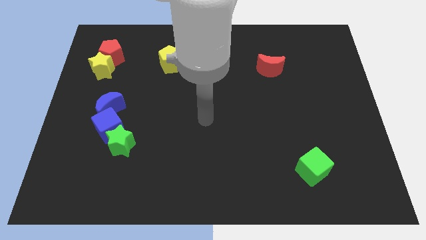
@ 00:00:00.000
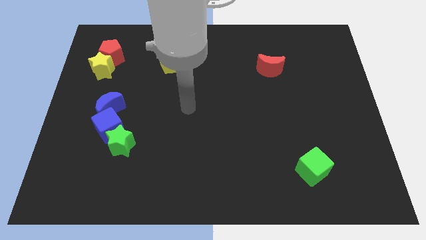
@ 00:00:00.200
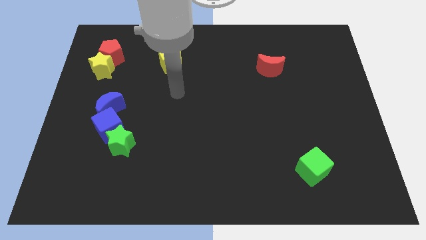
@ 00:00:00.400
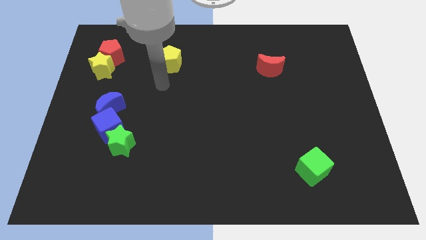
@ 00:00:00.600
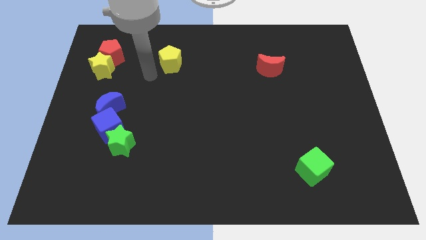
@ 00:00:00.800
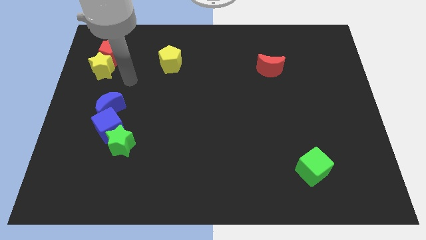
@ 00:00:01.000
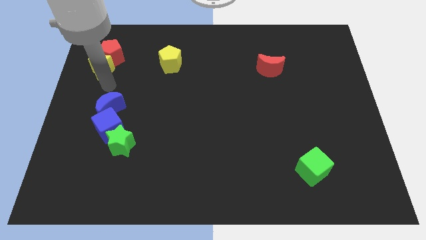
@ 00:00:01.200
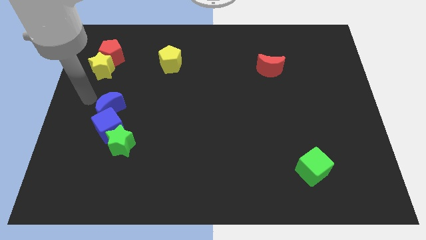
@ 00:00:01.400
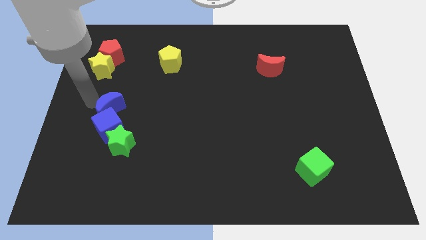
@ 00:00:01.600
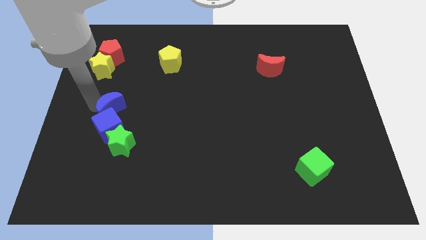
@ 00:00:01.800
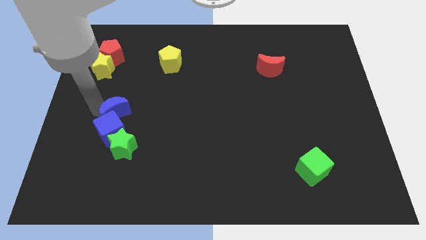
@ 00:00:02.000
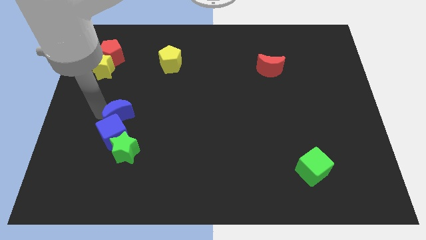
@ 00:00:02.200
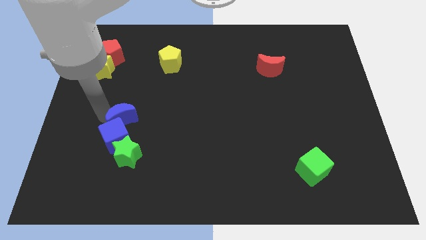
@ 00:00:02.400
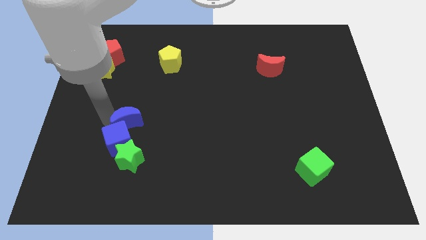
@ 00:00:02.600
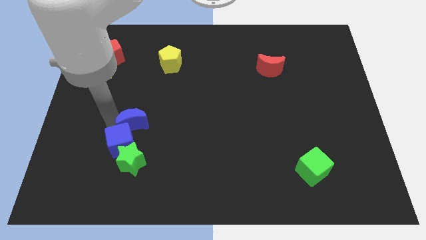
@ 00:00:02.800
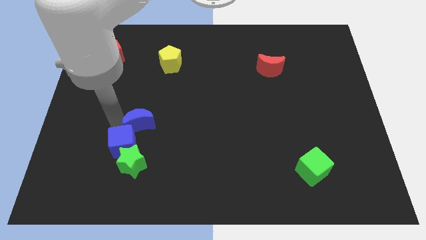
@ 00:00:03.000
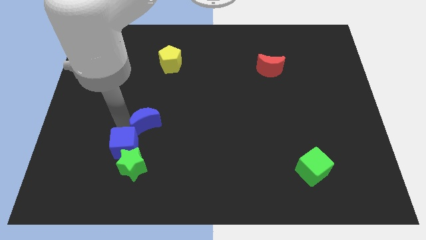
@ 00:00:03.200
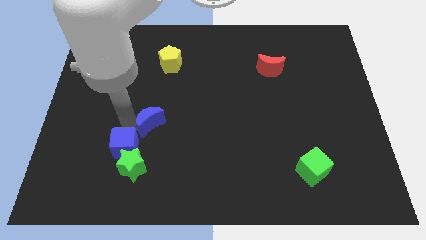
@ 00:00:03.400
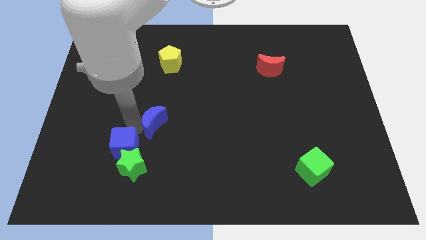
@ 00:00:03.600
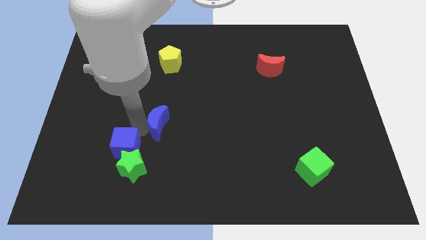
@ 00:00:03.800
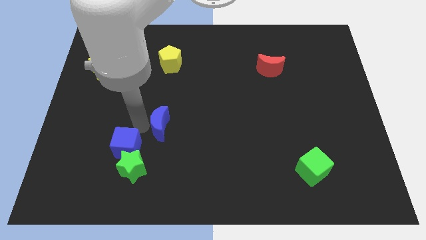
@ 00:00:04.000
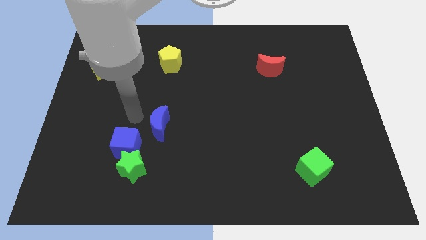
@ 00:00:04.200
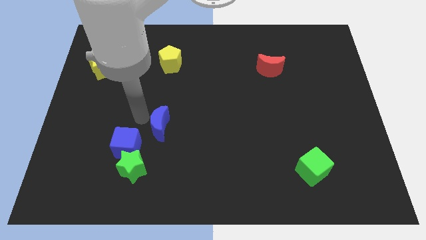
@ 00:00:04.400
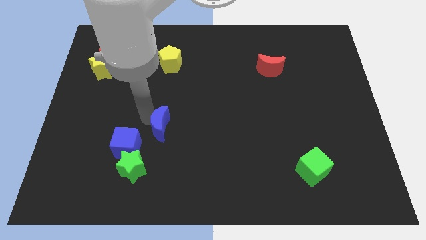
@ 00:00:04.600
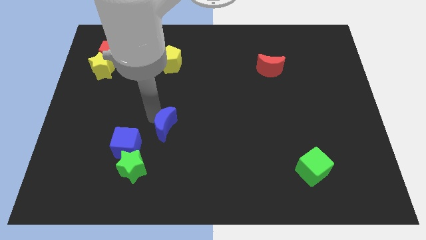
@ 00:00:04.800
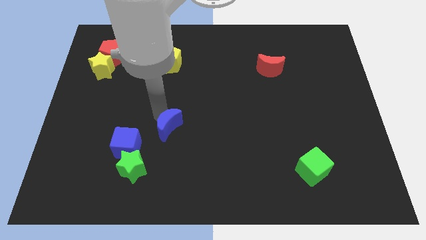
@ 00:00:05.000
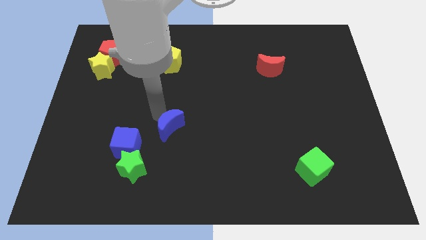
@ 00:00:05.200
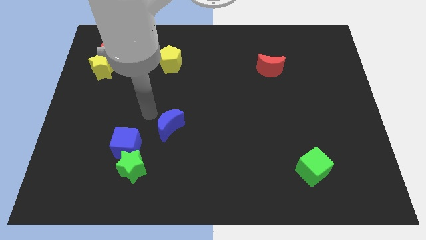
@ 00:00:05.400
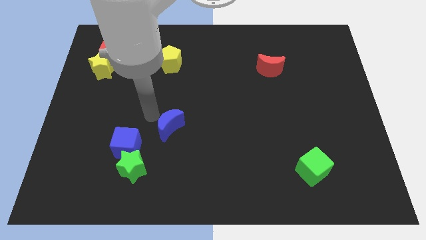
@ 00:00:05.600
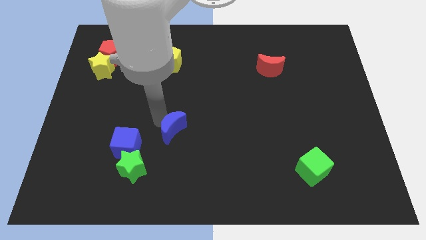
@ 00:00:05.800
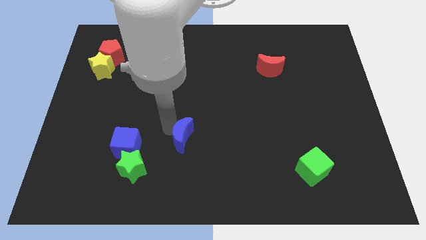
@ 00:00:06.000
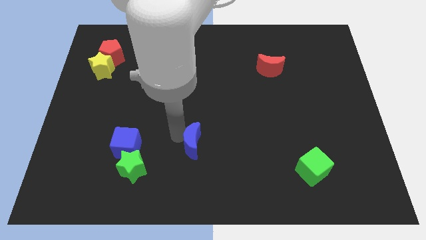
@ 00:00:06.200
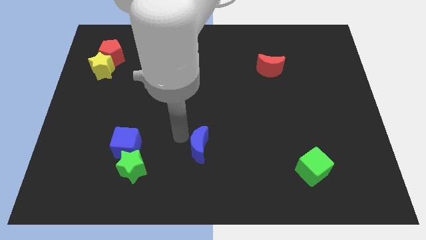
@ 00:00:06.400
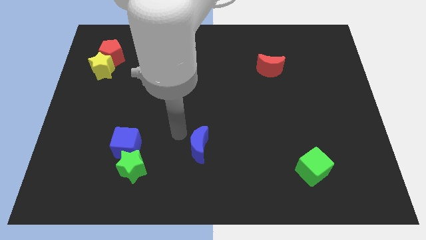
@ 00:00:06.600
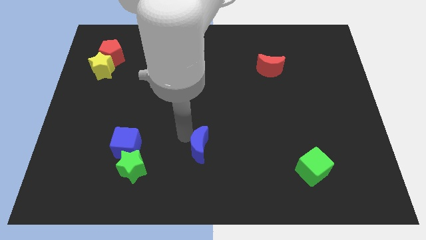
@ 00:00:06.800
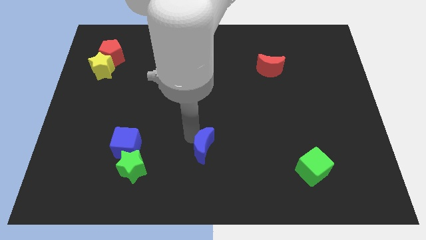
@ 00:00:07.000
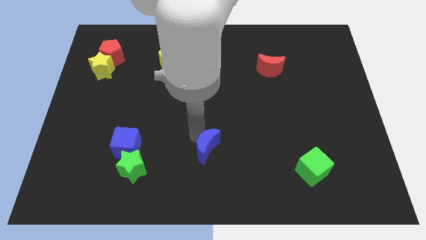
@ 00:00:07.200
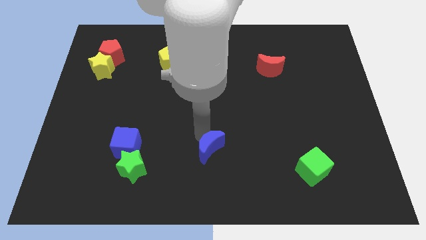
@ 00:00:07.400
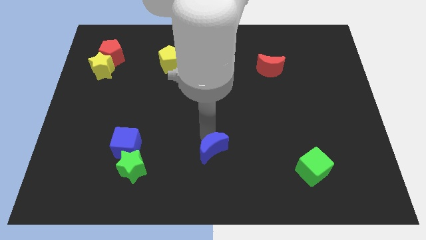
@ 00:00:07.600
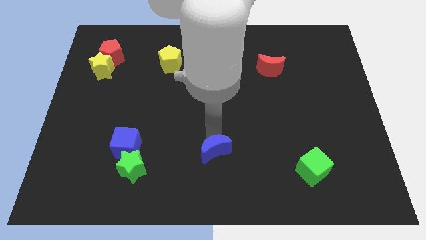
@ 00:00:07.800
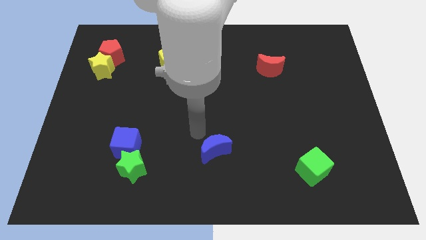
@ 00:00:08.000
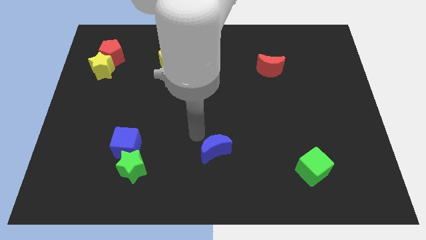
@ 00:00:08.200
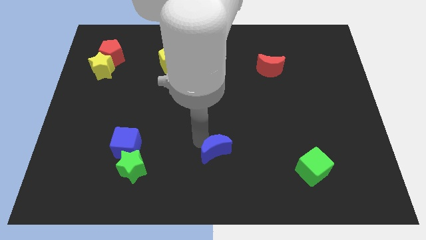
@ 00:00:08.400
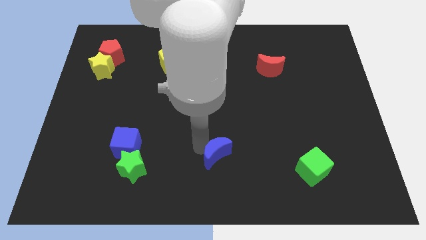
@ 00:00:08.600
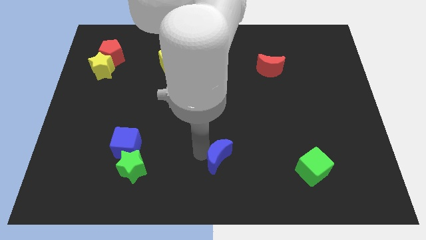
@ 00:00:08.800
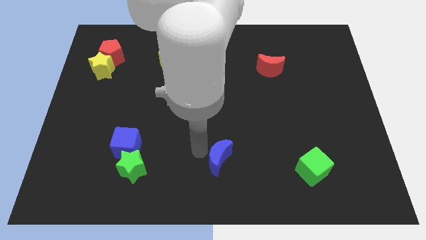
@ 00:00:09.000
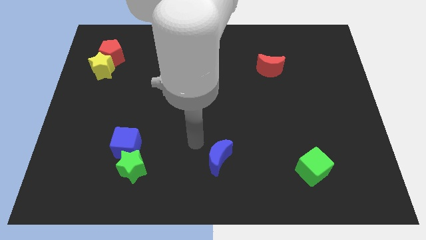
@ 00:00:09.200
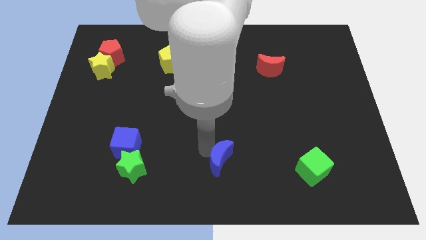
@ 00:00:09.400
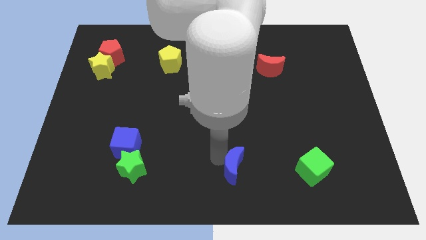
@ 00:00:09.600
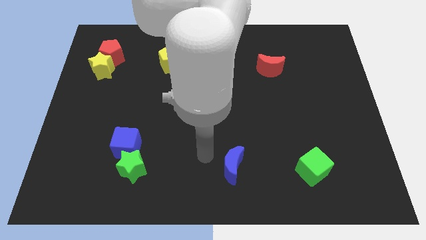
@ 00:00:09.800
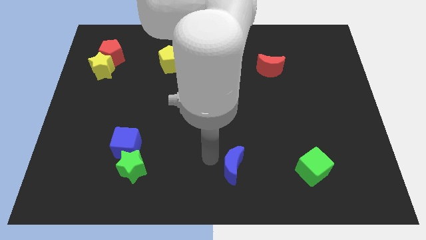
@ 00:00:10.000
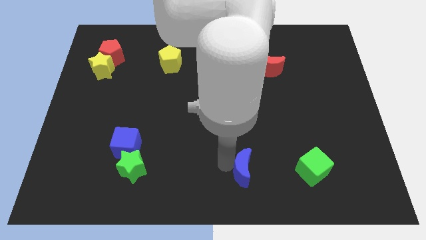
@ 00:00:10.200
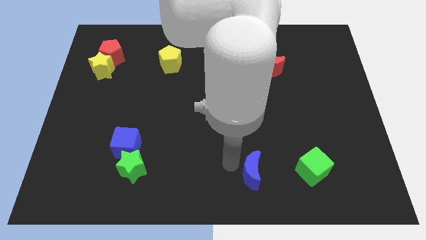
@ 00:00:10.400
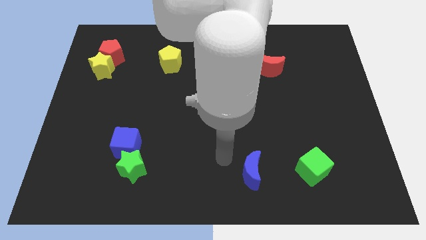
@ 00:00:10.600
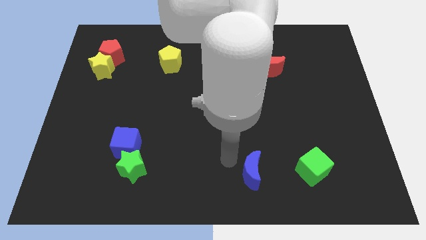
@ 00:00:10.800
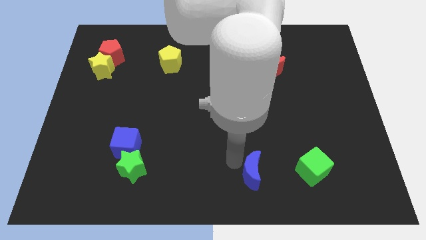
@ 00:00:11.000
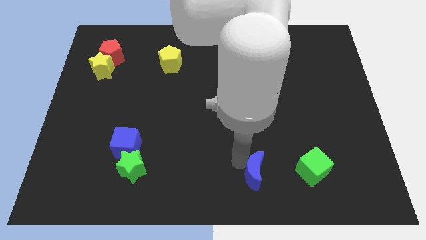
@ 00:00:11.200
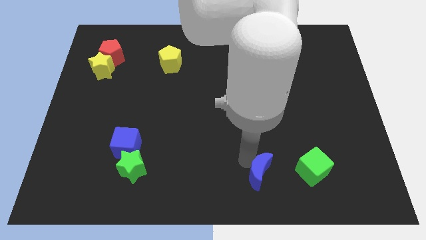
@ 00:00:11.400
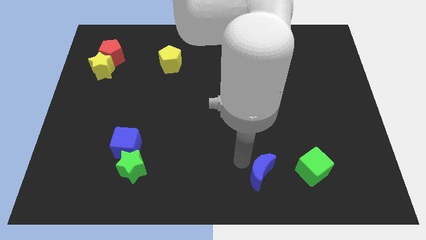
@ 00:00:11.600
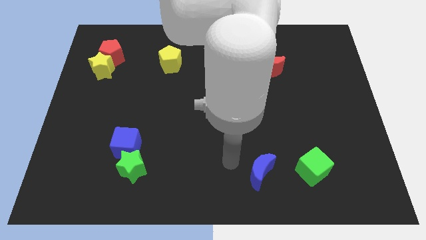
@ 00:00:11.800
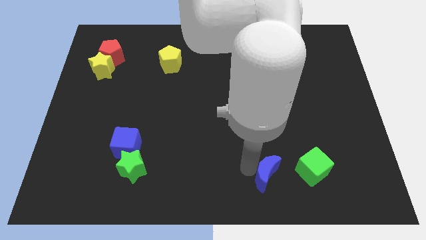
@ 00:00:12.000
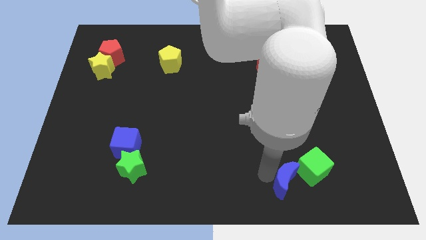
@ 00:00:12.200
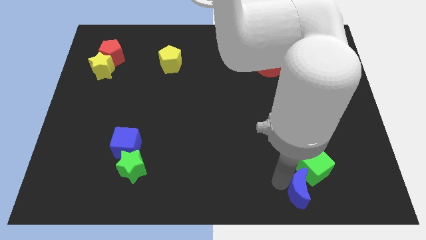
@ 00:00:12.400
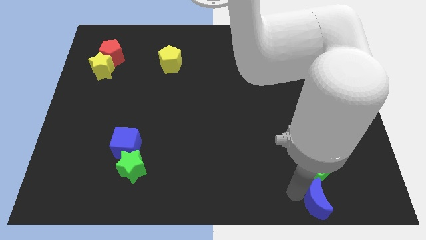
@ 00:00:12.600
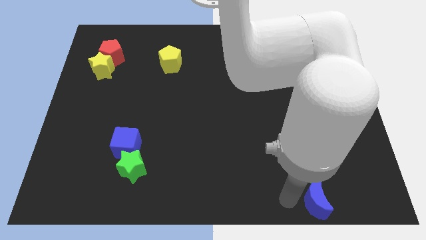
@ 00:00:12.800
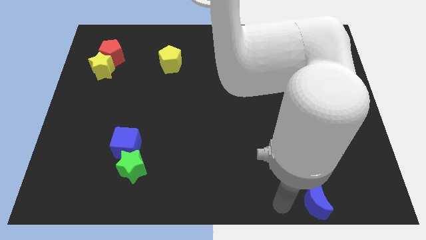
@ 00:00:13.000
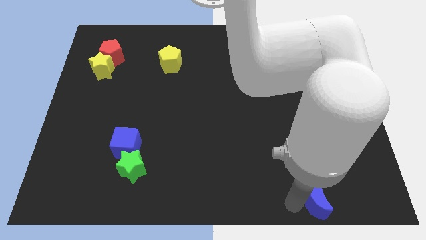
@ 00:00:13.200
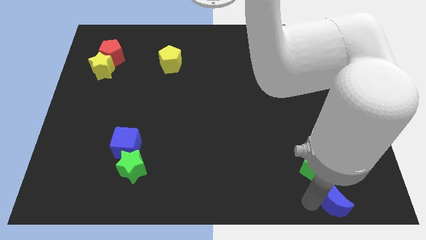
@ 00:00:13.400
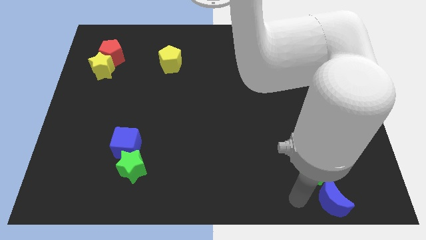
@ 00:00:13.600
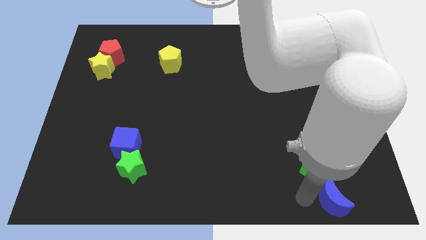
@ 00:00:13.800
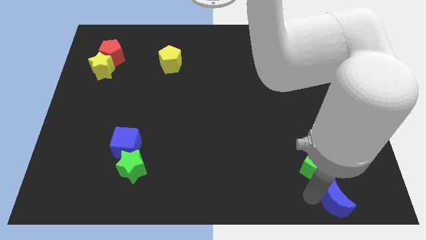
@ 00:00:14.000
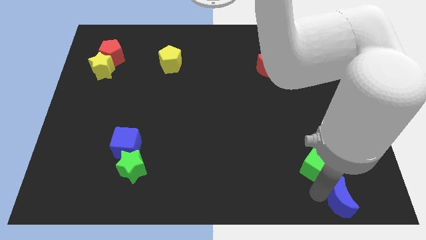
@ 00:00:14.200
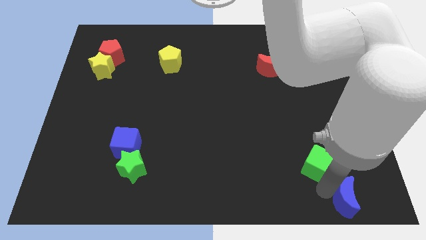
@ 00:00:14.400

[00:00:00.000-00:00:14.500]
move the blue moon to the lower right corner
